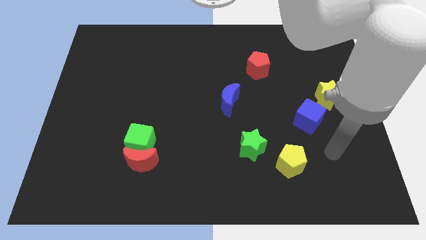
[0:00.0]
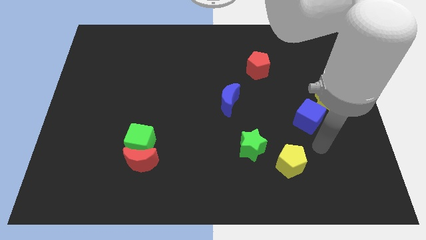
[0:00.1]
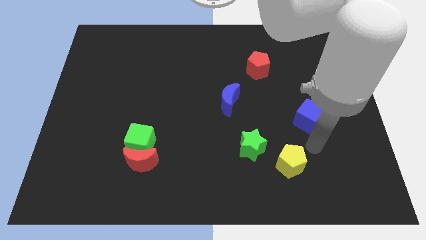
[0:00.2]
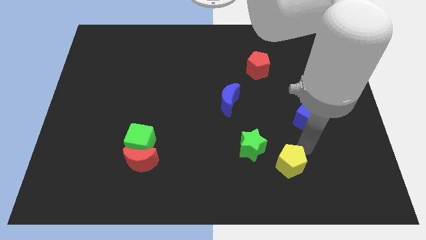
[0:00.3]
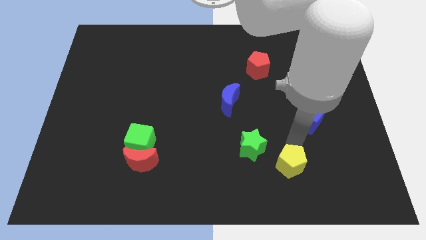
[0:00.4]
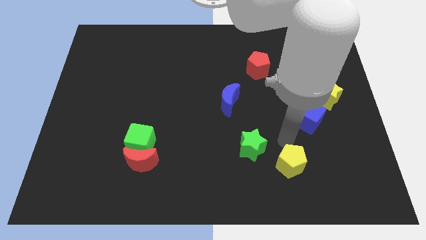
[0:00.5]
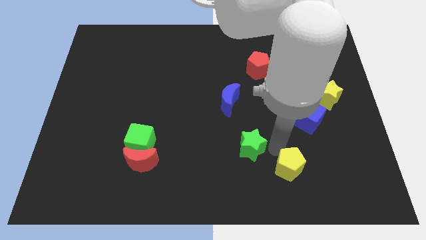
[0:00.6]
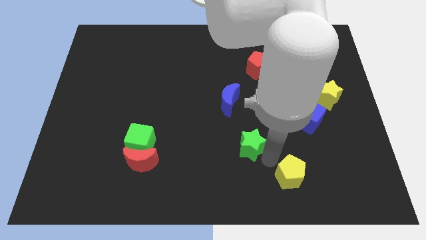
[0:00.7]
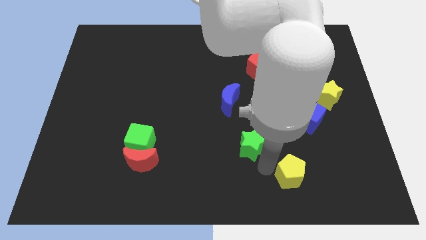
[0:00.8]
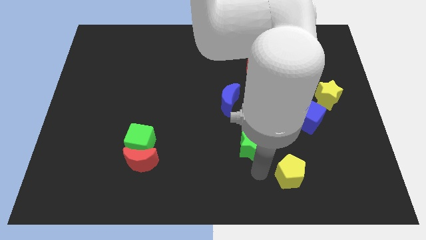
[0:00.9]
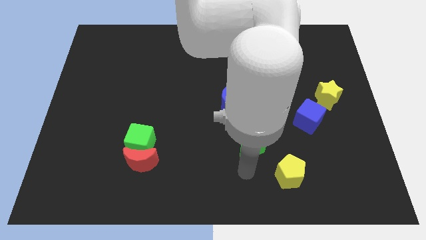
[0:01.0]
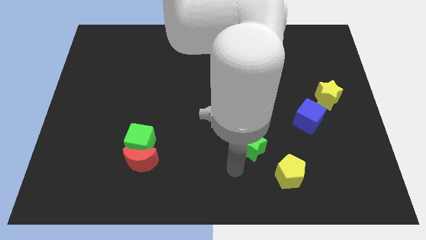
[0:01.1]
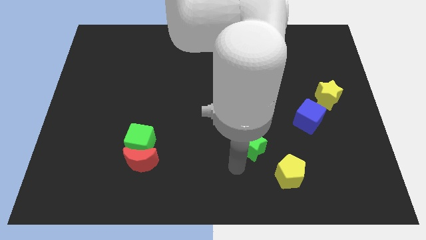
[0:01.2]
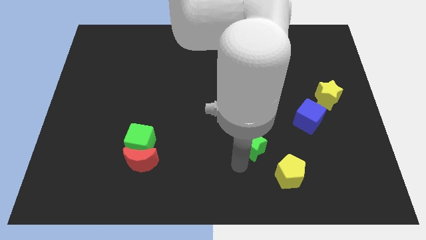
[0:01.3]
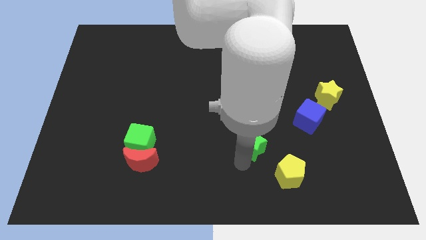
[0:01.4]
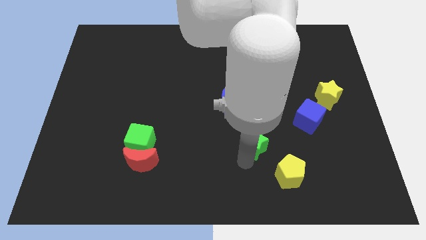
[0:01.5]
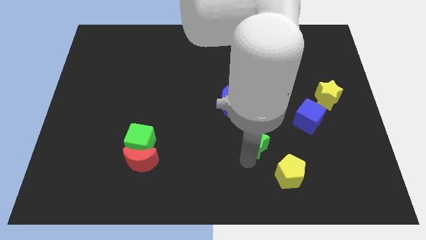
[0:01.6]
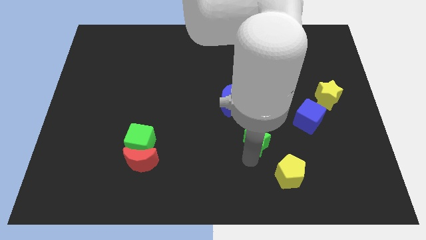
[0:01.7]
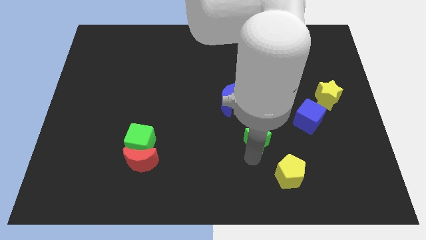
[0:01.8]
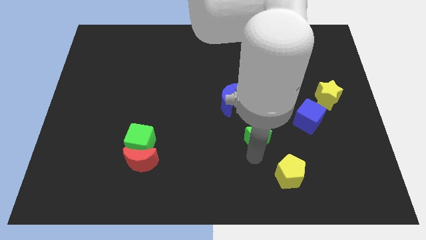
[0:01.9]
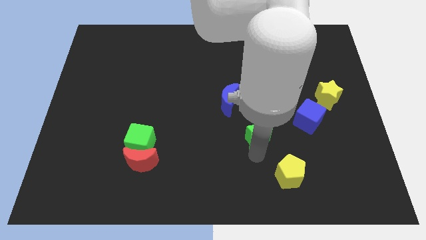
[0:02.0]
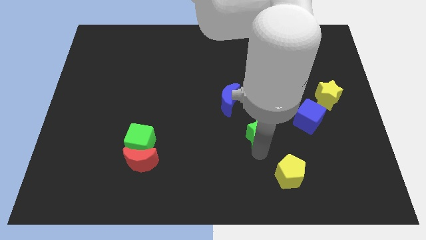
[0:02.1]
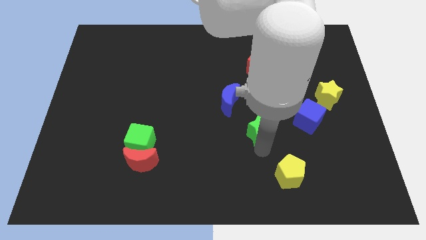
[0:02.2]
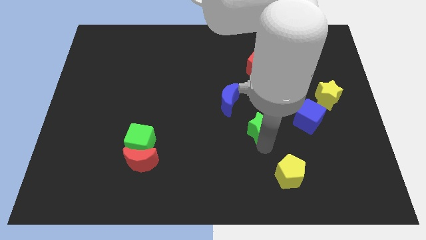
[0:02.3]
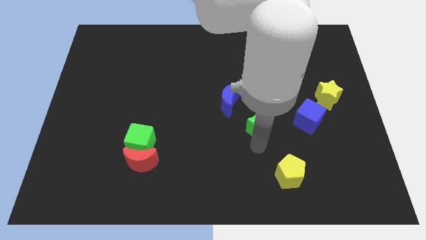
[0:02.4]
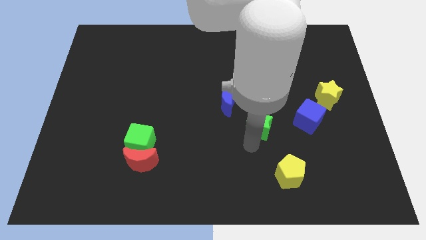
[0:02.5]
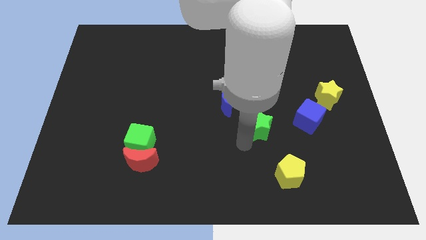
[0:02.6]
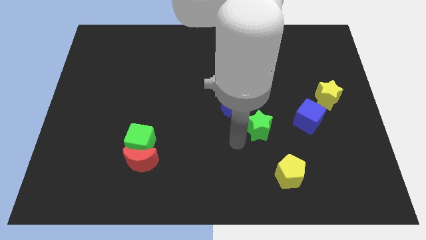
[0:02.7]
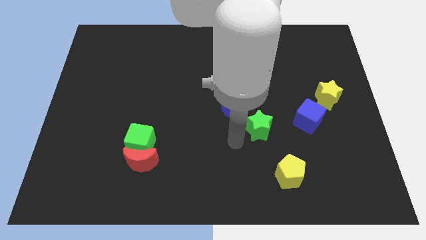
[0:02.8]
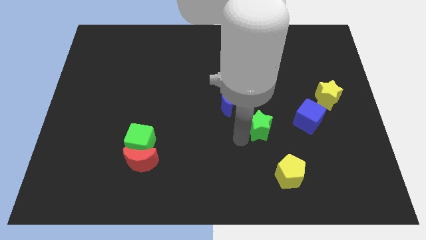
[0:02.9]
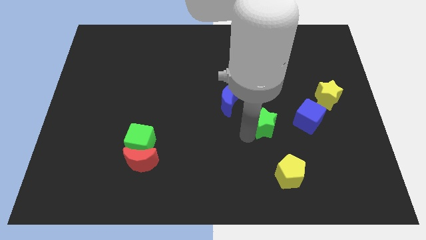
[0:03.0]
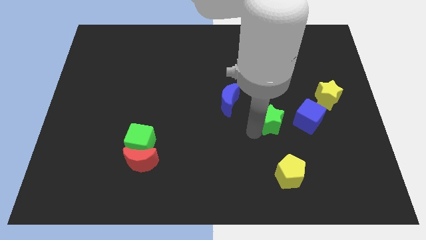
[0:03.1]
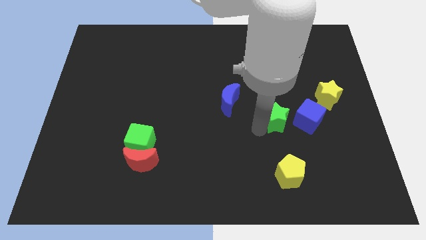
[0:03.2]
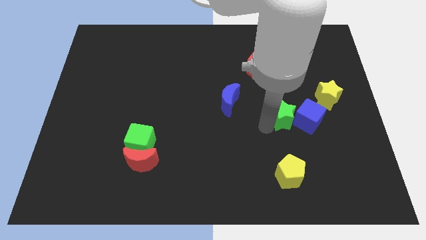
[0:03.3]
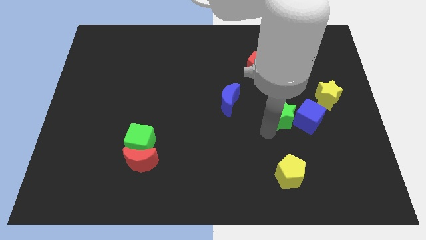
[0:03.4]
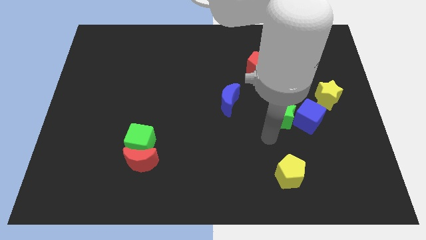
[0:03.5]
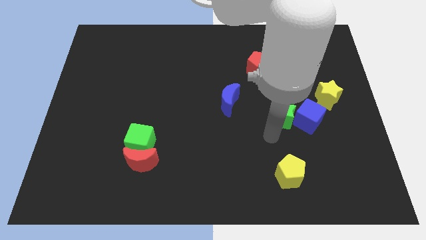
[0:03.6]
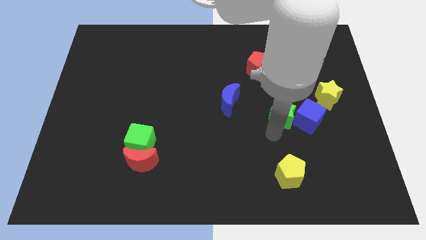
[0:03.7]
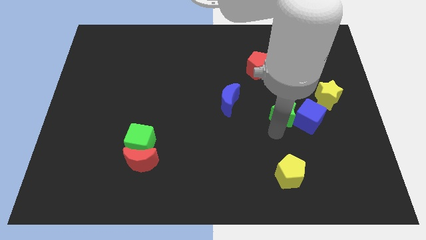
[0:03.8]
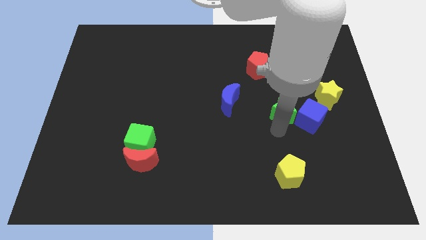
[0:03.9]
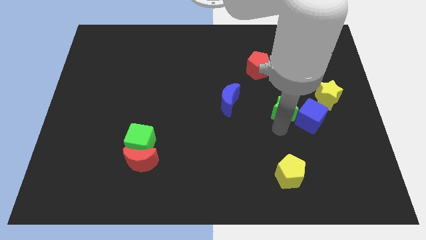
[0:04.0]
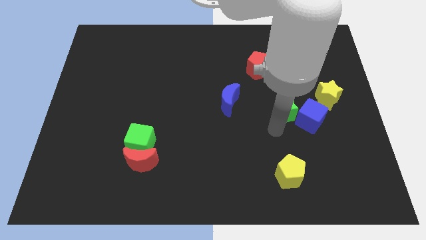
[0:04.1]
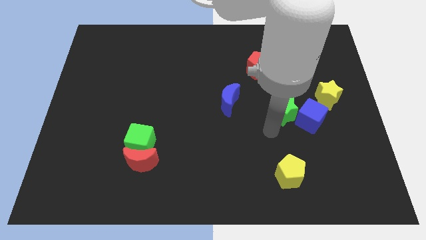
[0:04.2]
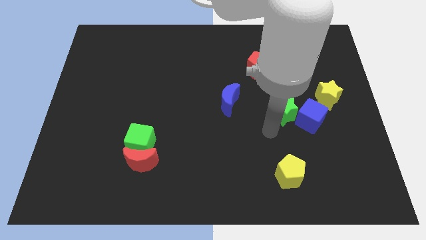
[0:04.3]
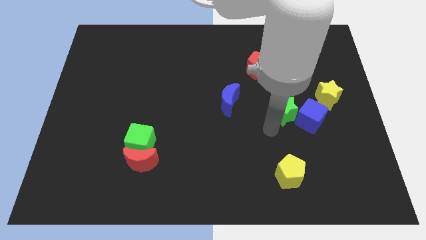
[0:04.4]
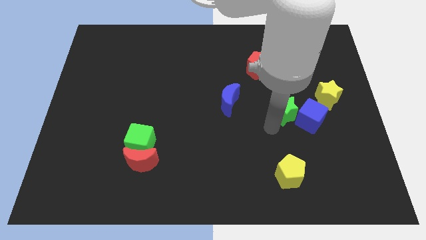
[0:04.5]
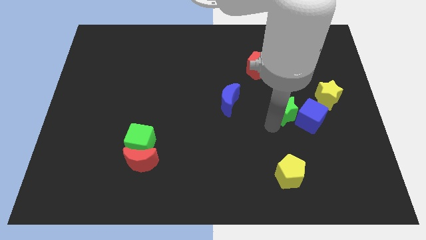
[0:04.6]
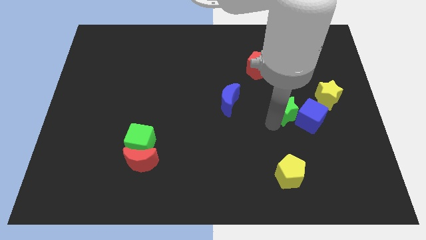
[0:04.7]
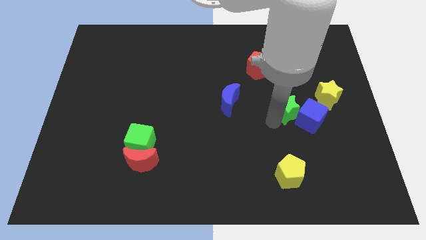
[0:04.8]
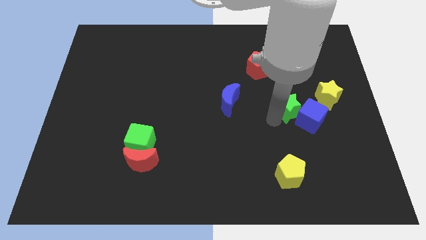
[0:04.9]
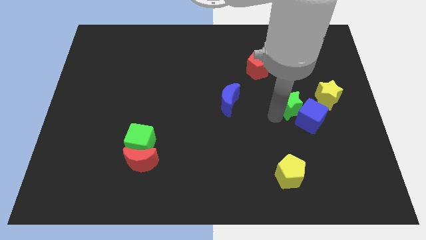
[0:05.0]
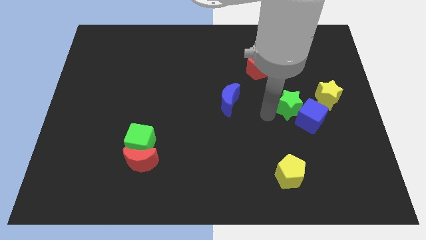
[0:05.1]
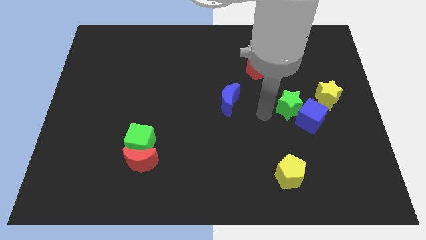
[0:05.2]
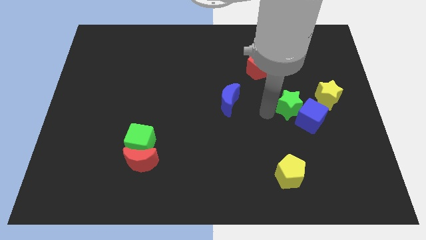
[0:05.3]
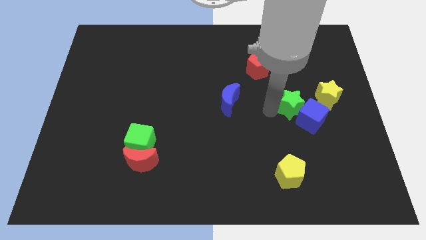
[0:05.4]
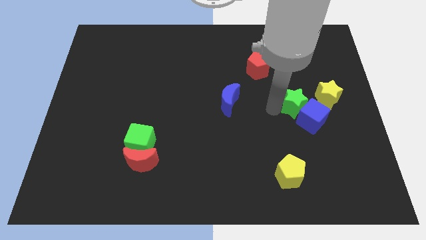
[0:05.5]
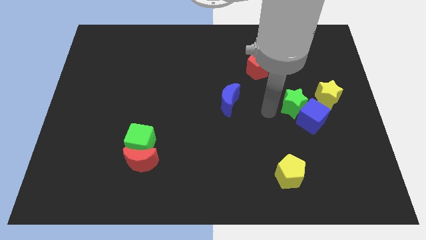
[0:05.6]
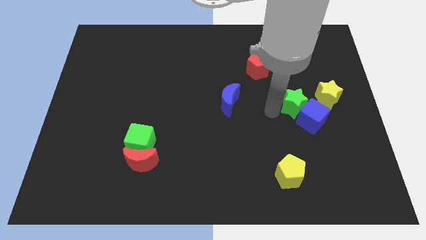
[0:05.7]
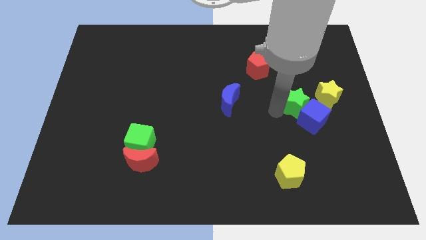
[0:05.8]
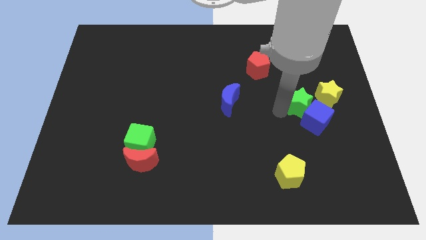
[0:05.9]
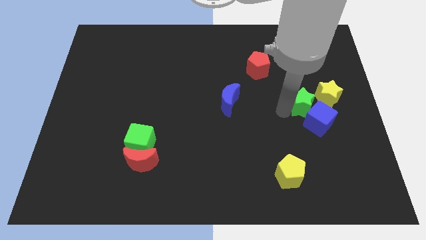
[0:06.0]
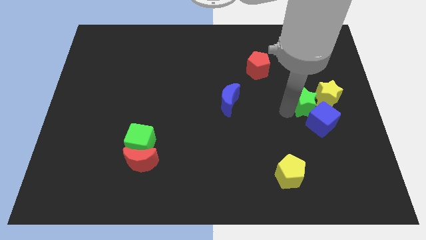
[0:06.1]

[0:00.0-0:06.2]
move the green star next to the yellow star
